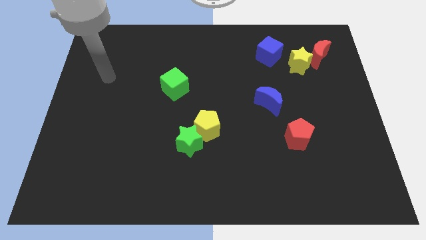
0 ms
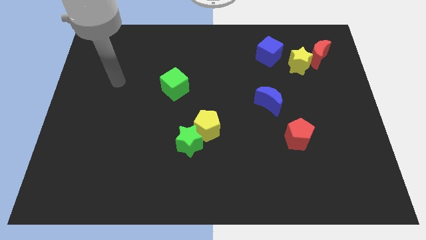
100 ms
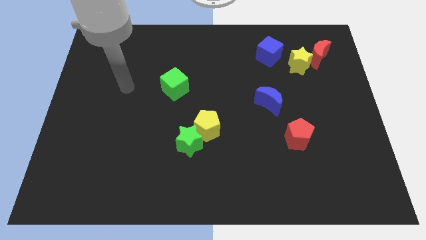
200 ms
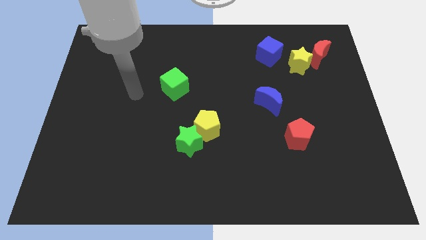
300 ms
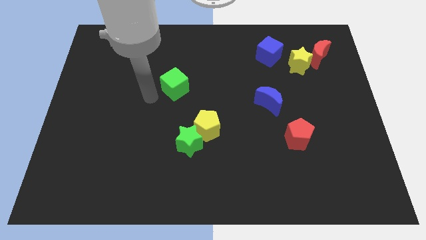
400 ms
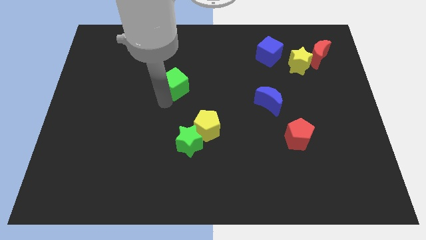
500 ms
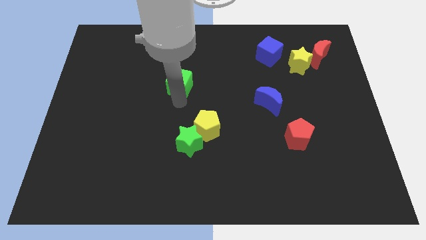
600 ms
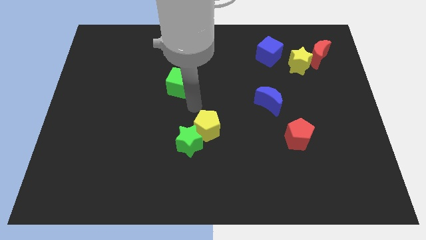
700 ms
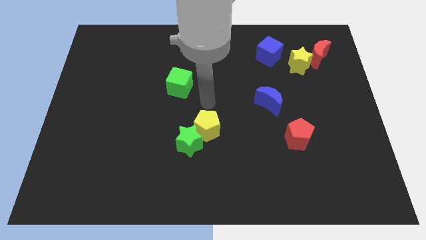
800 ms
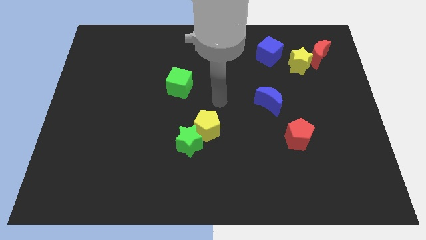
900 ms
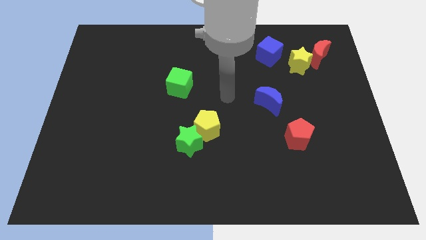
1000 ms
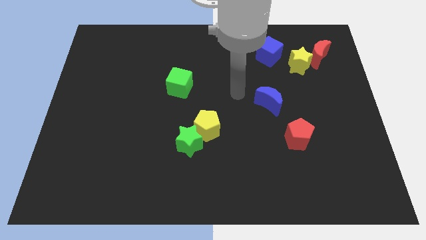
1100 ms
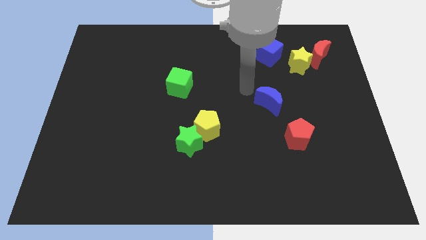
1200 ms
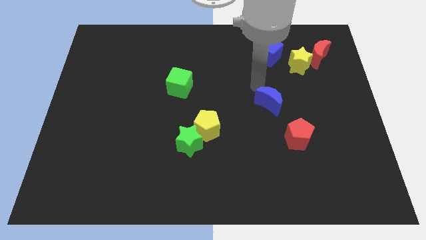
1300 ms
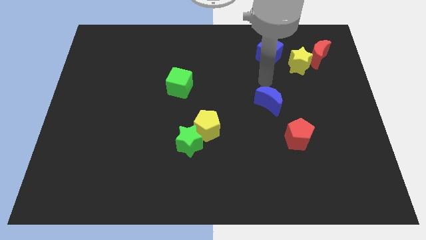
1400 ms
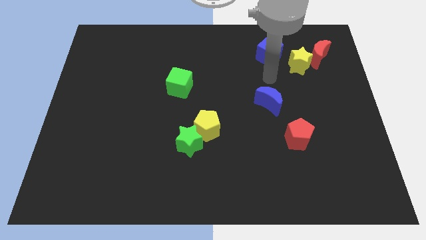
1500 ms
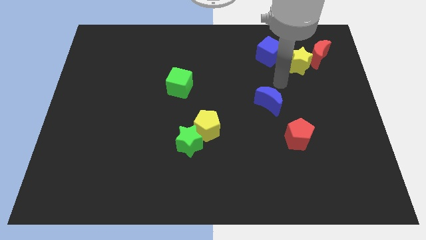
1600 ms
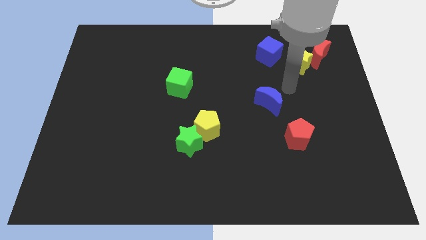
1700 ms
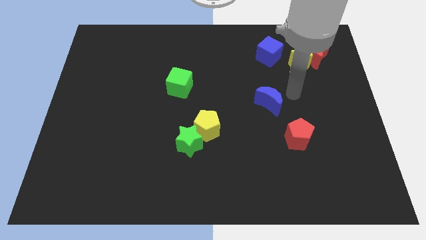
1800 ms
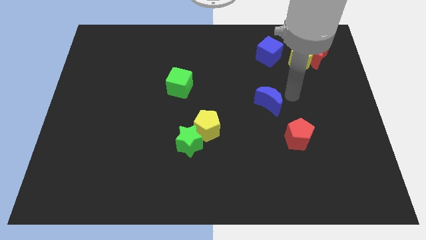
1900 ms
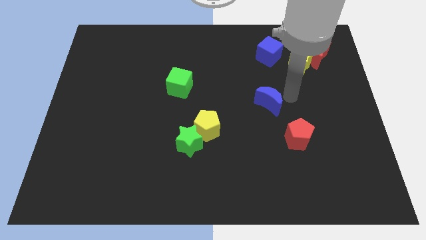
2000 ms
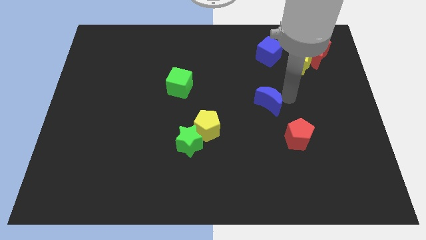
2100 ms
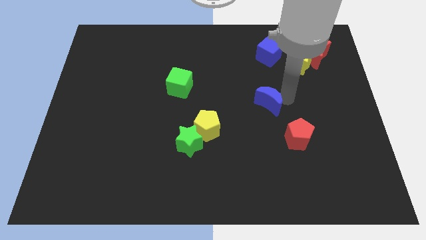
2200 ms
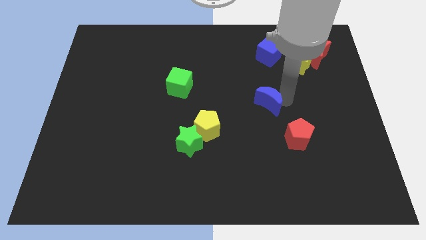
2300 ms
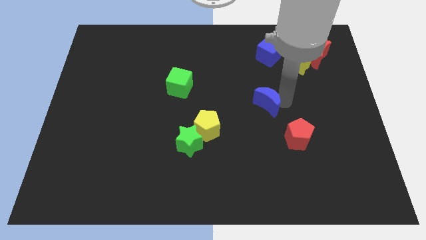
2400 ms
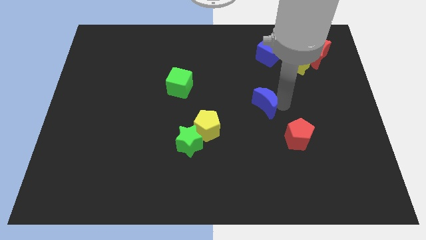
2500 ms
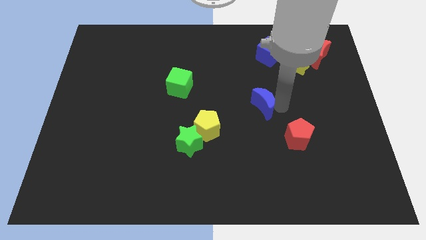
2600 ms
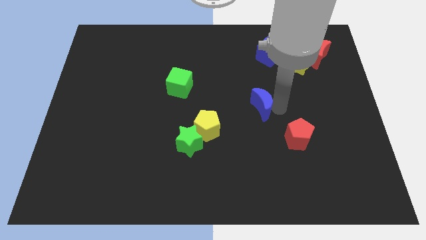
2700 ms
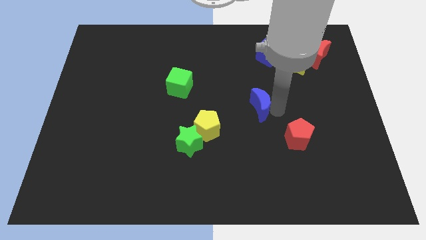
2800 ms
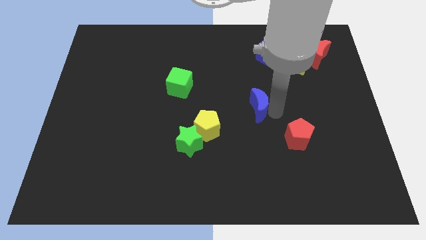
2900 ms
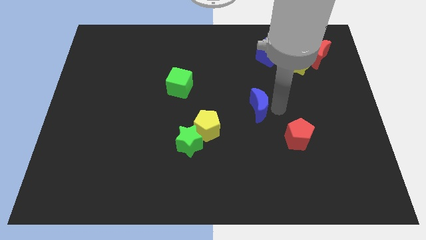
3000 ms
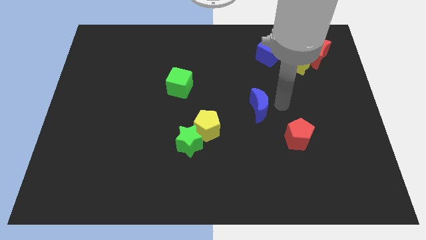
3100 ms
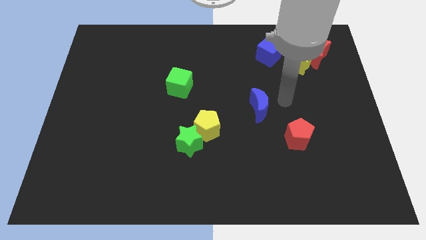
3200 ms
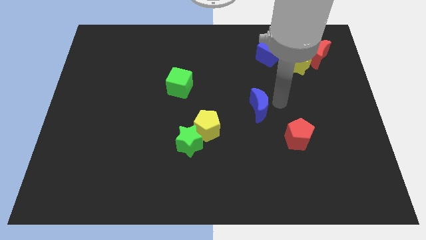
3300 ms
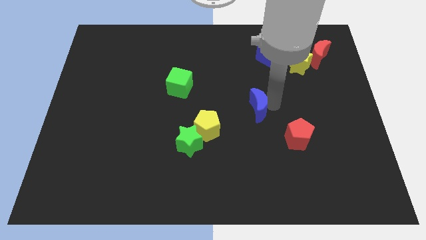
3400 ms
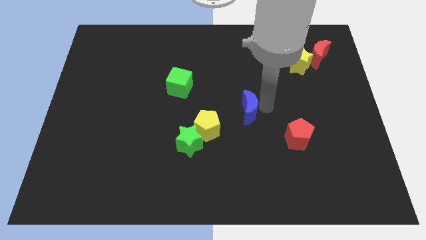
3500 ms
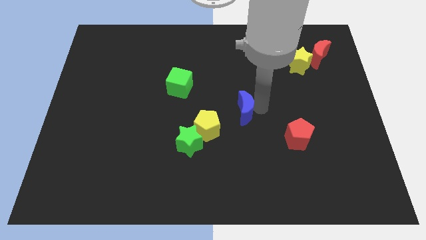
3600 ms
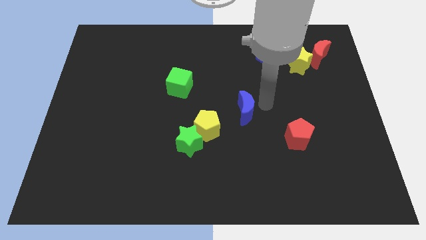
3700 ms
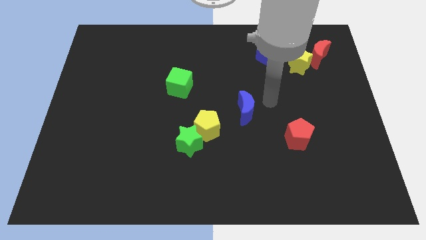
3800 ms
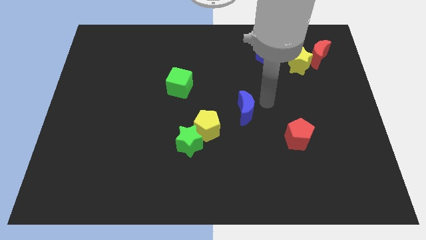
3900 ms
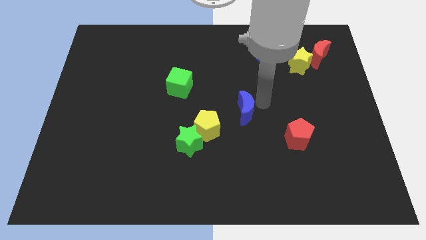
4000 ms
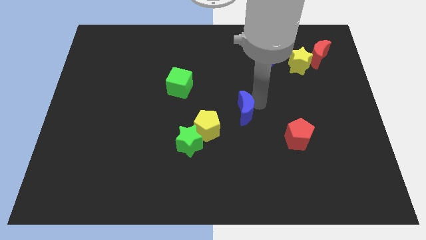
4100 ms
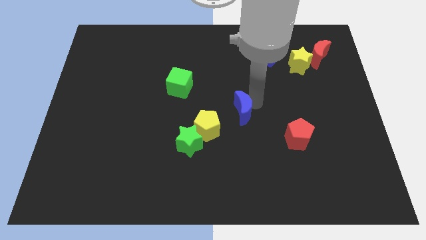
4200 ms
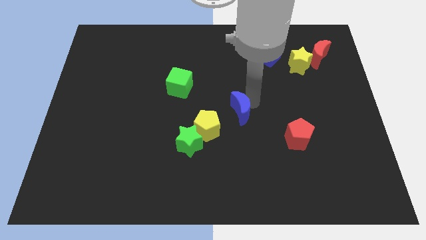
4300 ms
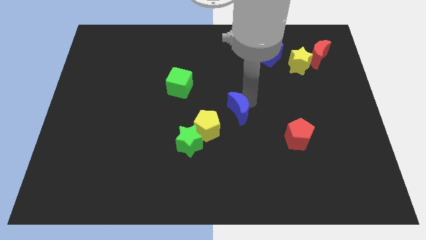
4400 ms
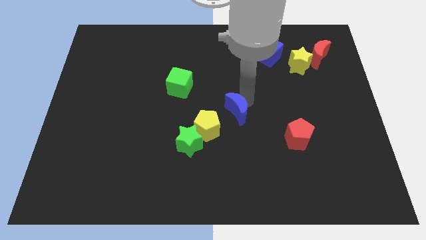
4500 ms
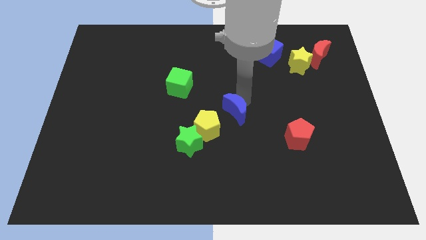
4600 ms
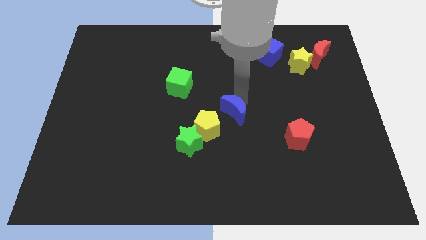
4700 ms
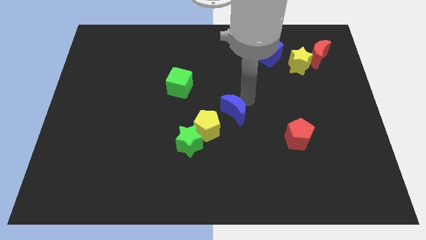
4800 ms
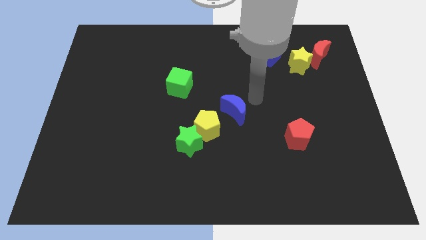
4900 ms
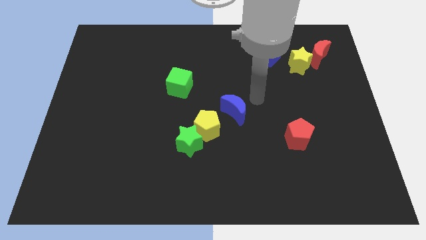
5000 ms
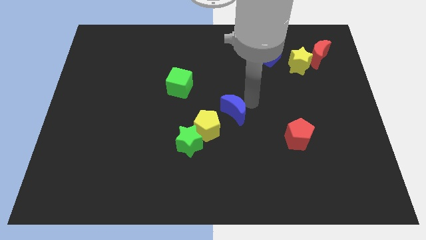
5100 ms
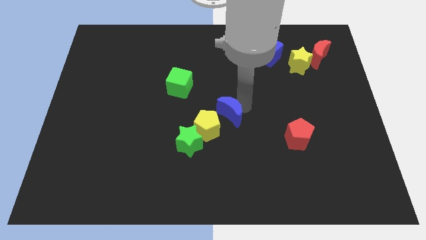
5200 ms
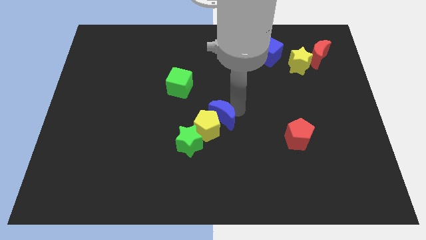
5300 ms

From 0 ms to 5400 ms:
push the blue moon to the yellow pentagon

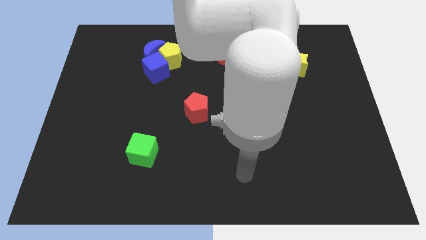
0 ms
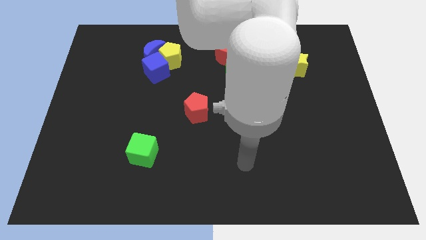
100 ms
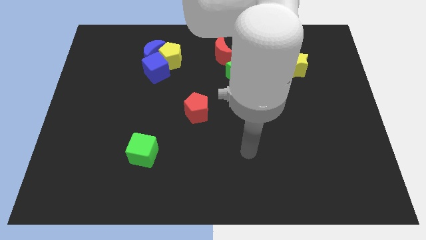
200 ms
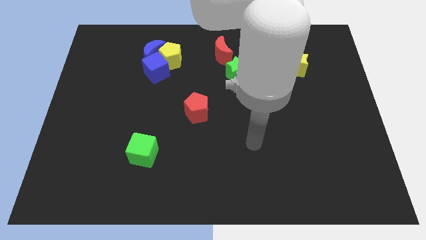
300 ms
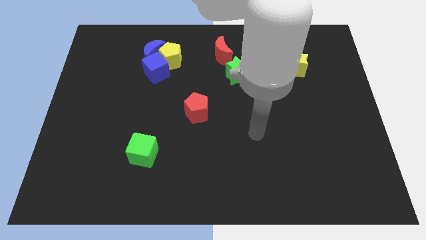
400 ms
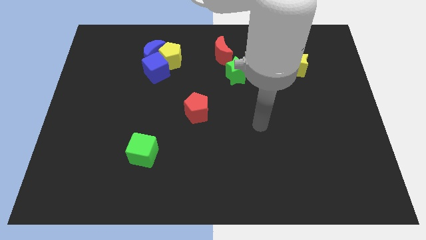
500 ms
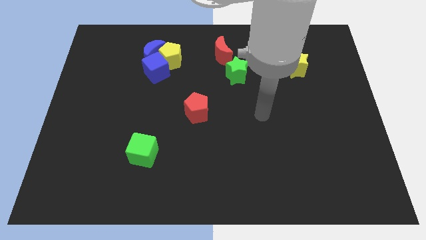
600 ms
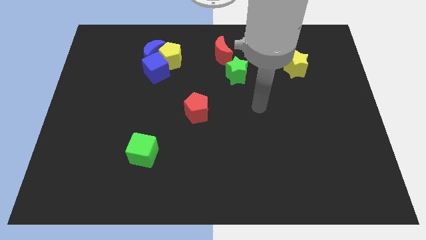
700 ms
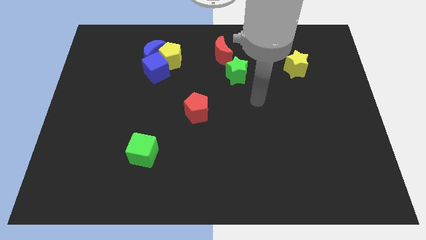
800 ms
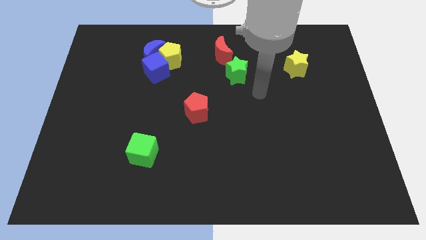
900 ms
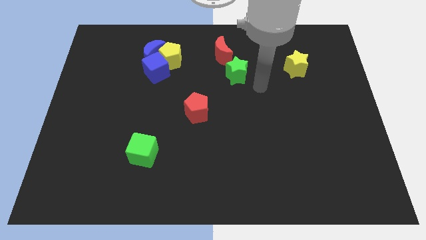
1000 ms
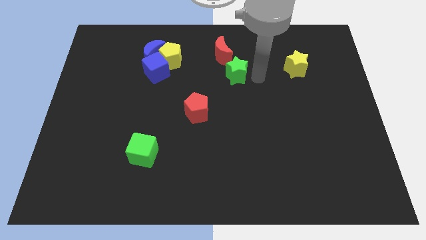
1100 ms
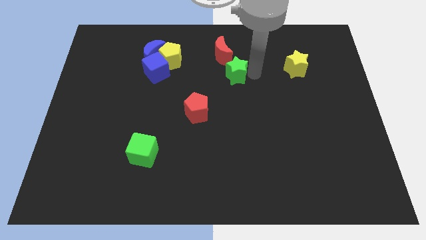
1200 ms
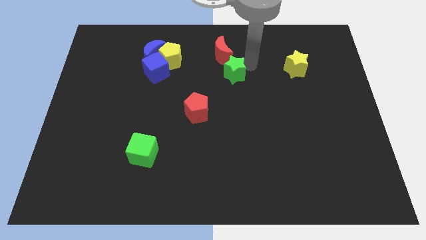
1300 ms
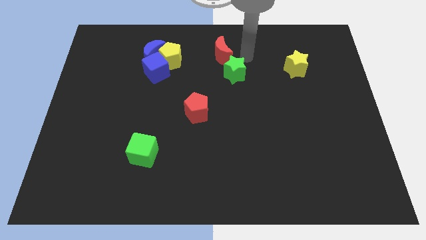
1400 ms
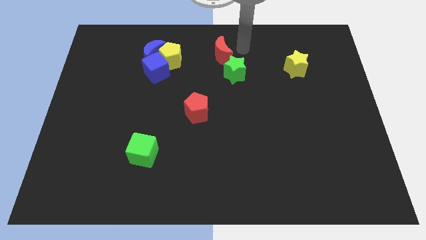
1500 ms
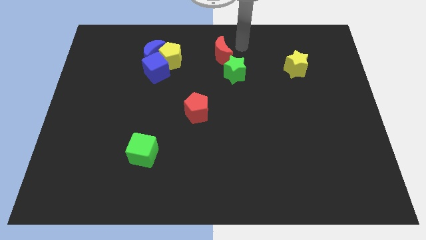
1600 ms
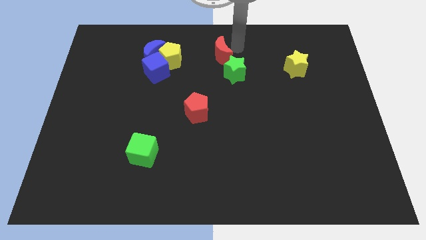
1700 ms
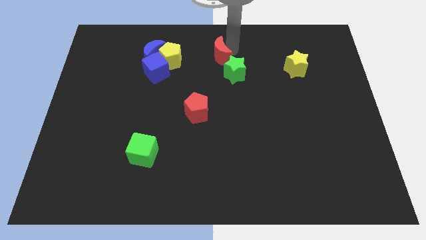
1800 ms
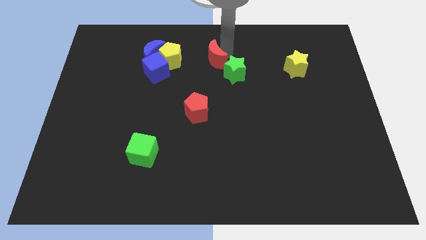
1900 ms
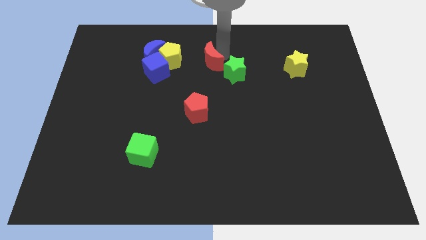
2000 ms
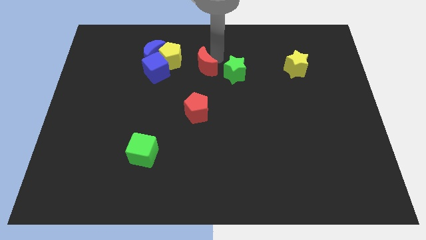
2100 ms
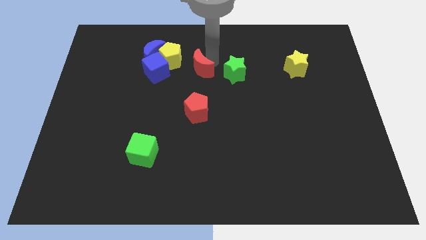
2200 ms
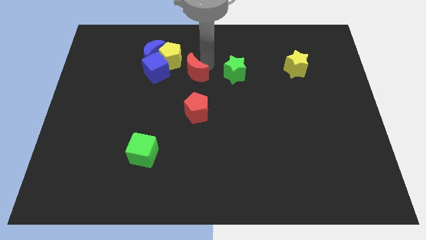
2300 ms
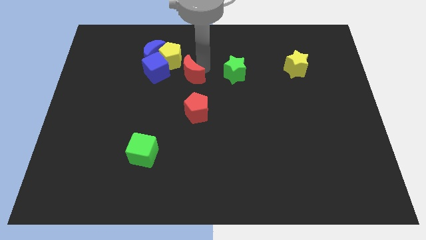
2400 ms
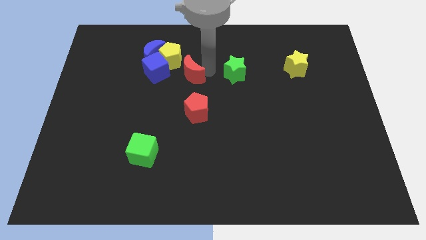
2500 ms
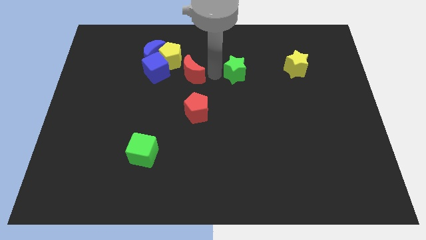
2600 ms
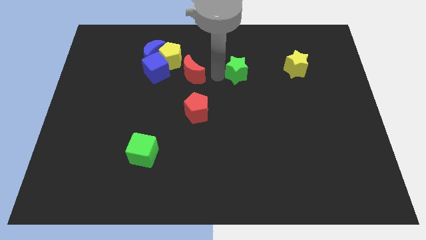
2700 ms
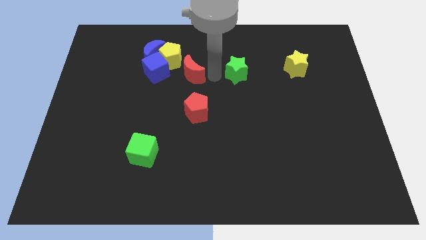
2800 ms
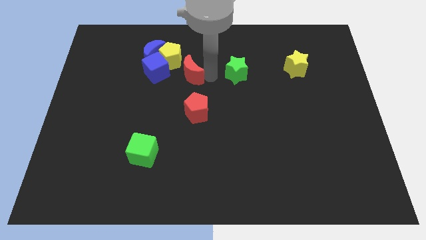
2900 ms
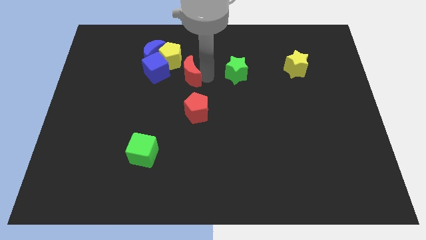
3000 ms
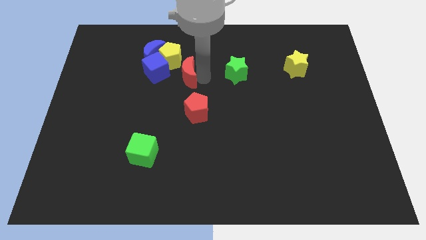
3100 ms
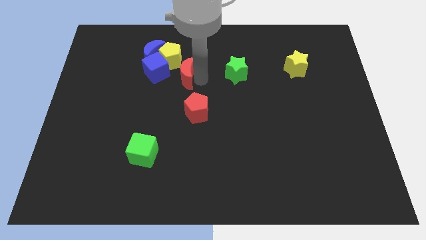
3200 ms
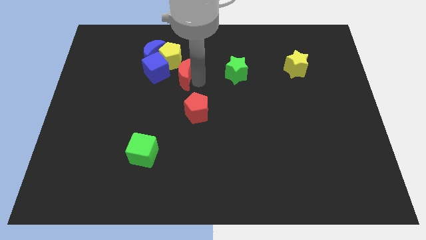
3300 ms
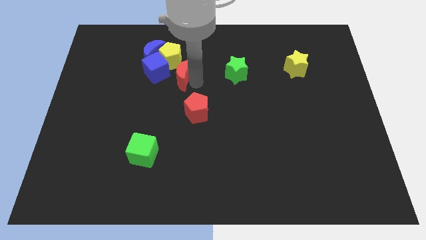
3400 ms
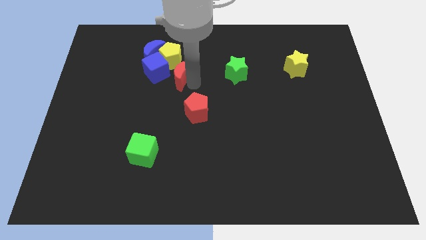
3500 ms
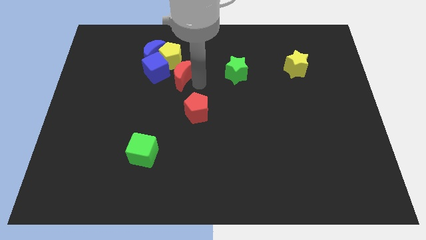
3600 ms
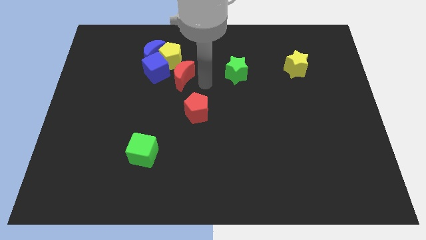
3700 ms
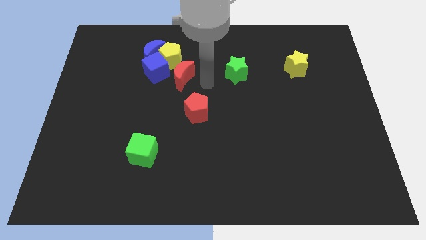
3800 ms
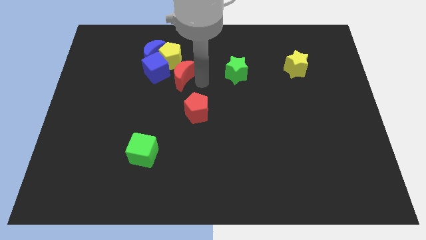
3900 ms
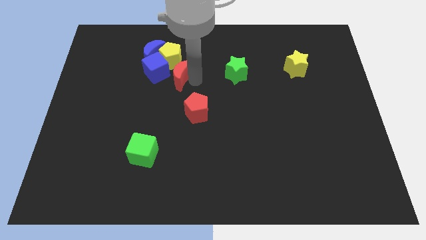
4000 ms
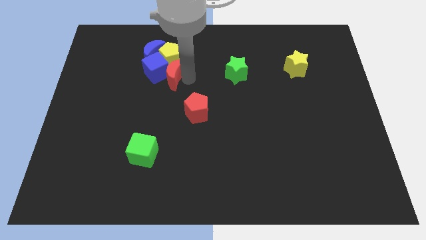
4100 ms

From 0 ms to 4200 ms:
push the red moon close to the blue cube
